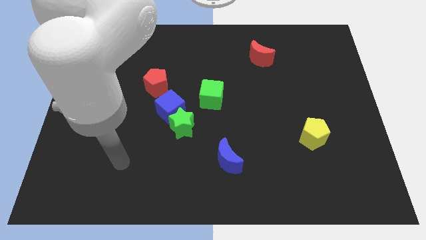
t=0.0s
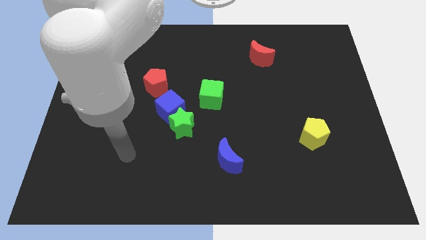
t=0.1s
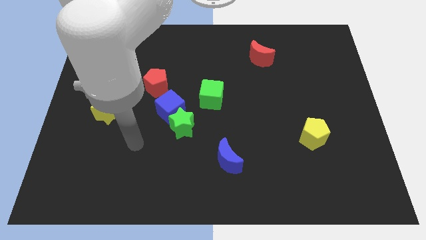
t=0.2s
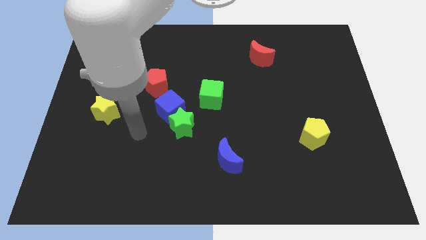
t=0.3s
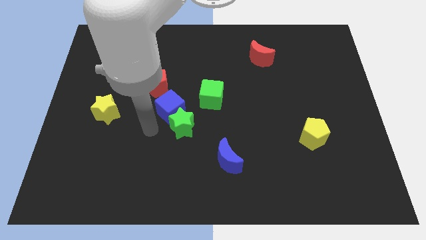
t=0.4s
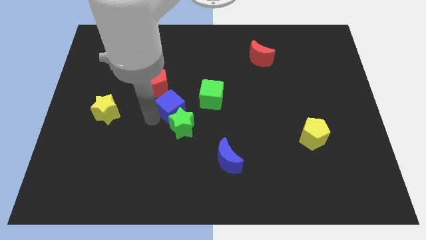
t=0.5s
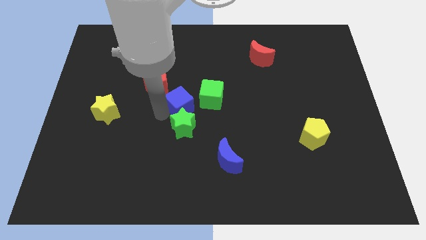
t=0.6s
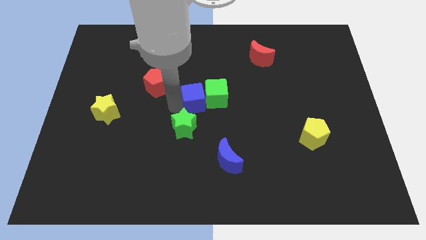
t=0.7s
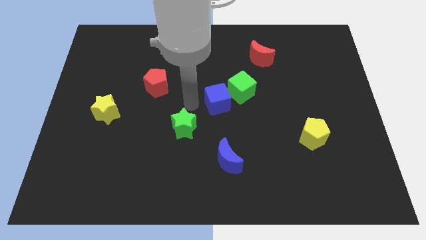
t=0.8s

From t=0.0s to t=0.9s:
separate the green star from the blue cube

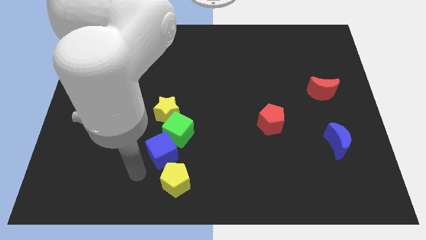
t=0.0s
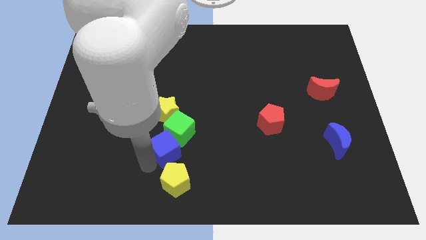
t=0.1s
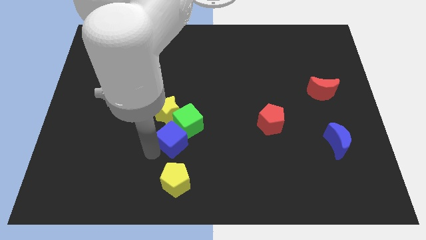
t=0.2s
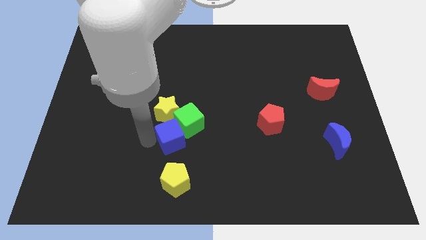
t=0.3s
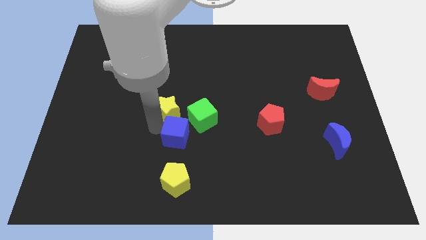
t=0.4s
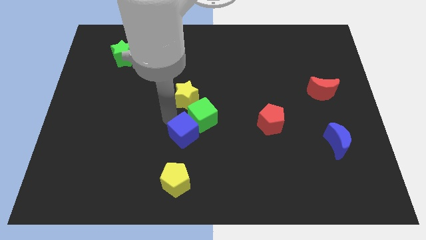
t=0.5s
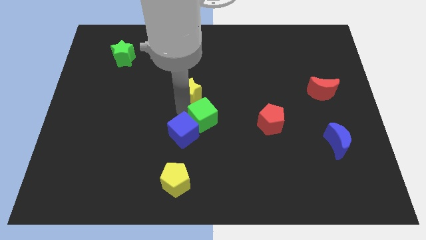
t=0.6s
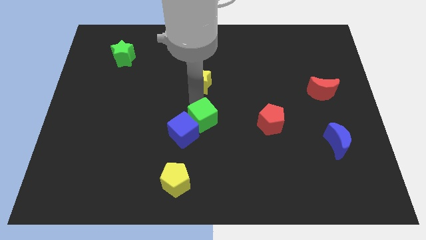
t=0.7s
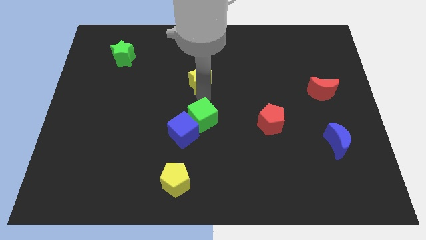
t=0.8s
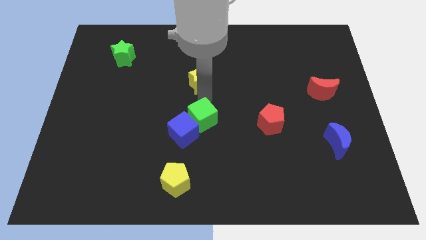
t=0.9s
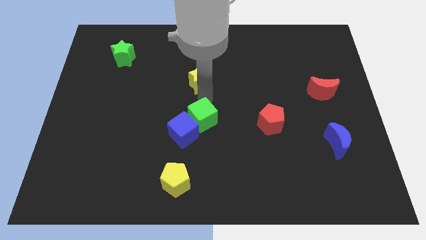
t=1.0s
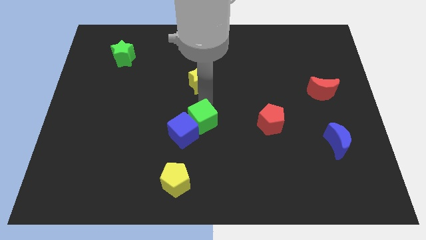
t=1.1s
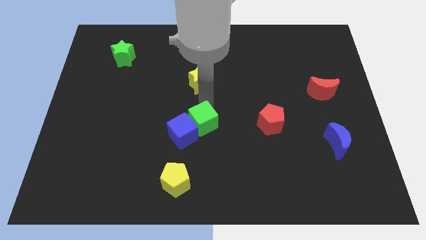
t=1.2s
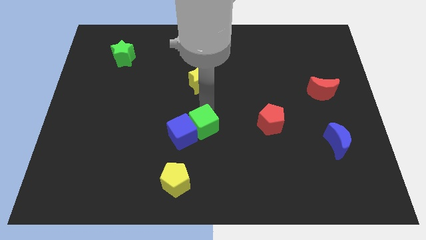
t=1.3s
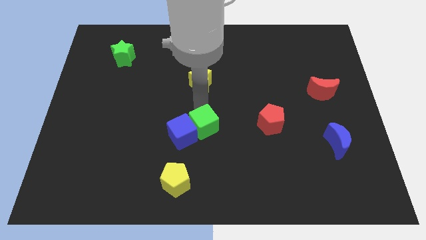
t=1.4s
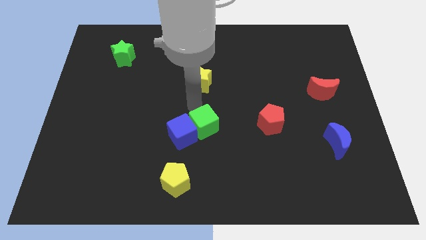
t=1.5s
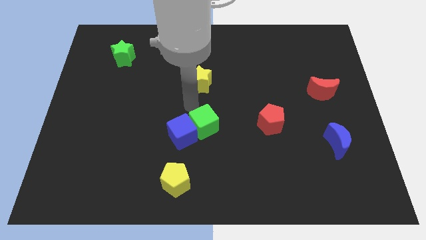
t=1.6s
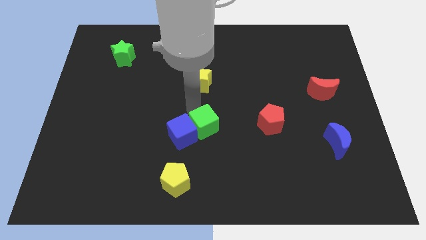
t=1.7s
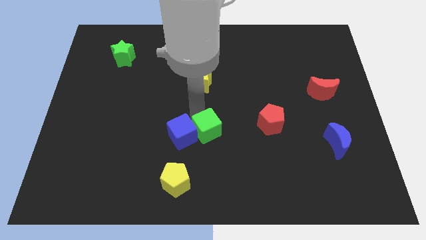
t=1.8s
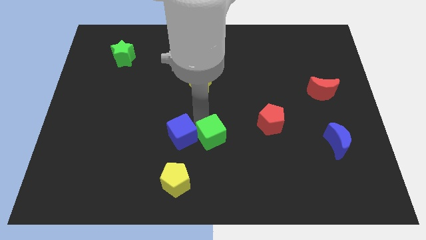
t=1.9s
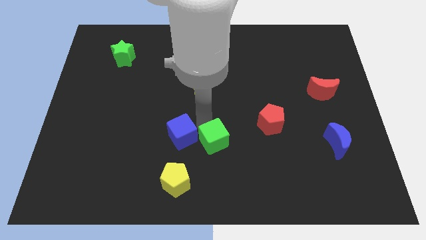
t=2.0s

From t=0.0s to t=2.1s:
pull the green cube apart from the yellow star and blue cube

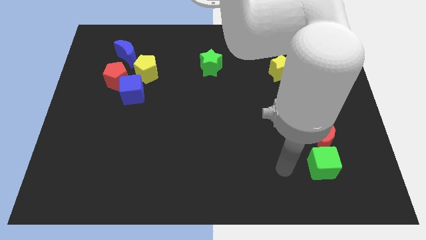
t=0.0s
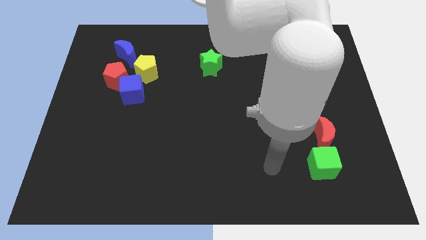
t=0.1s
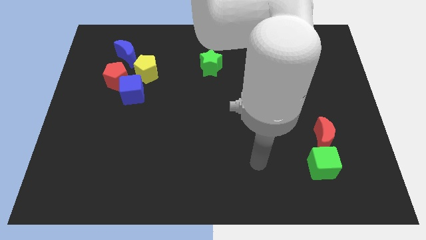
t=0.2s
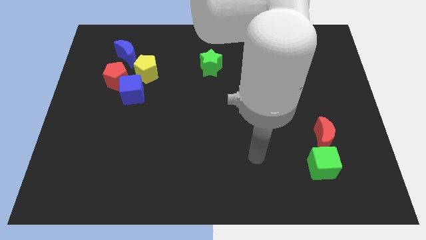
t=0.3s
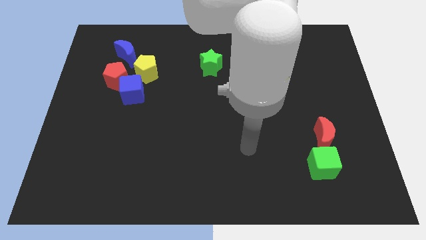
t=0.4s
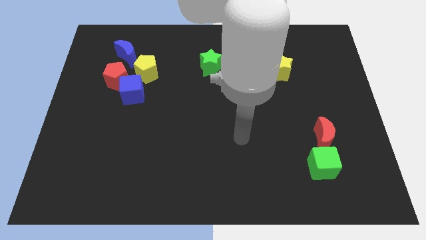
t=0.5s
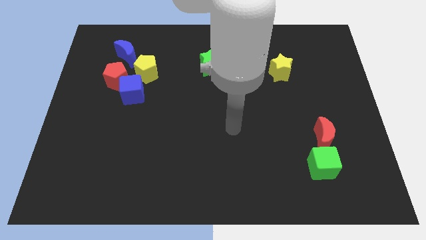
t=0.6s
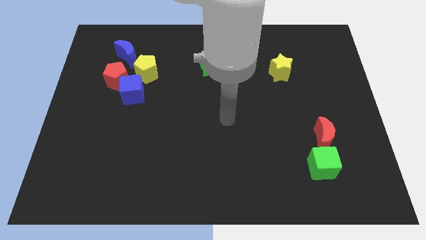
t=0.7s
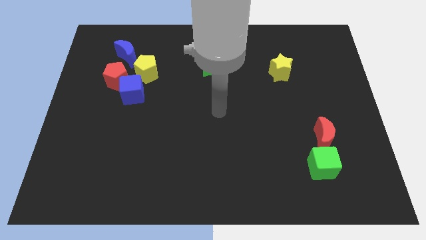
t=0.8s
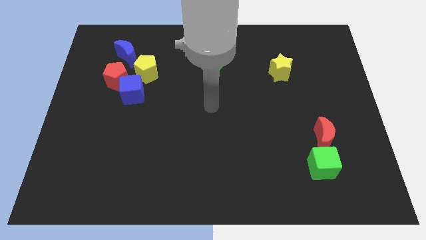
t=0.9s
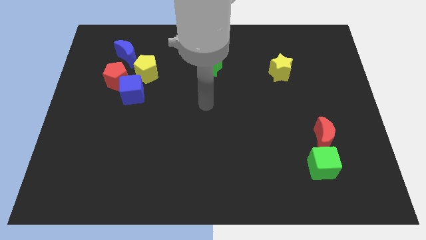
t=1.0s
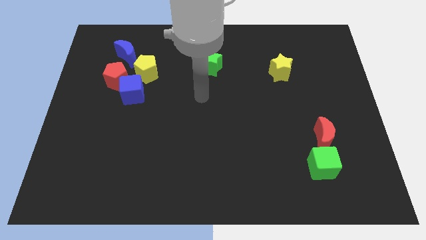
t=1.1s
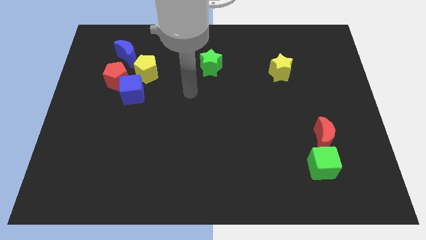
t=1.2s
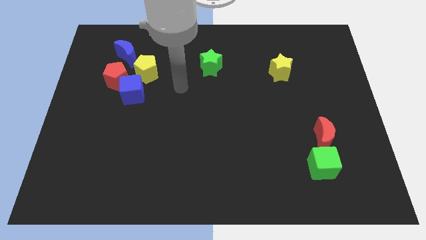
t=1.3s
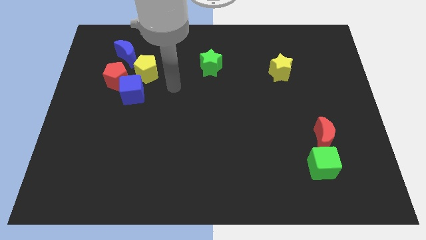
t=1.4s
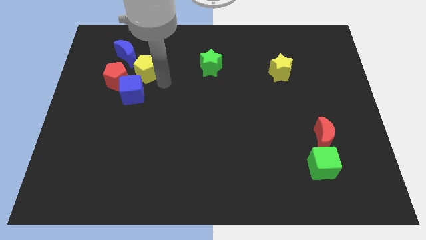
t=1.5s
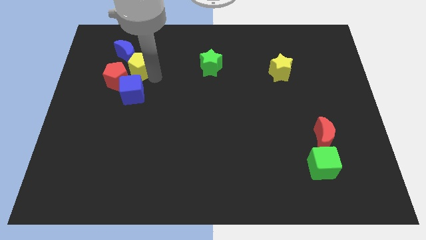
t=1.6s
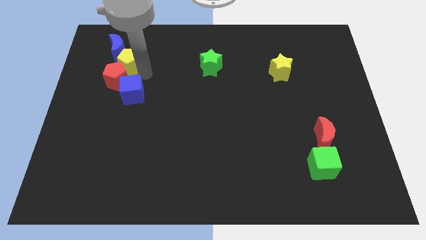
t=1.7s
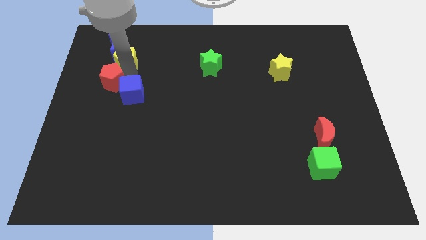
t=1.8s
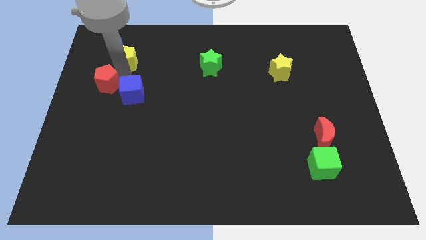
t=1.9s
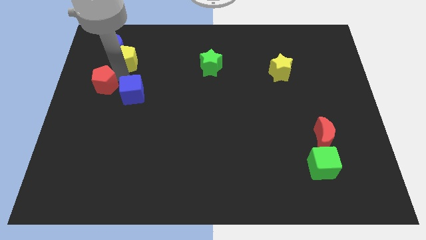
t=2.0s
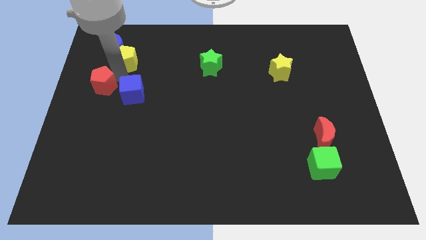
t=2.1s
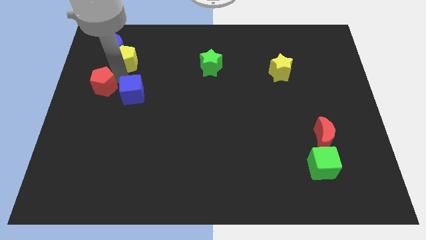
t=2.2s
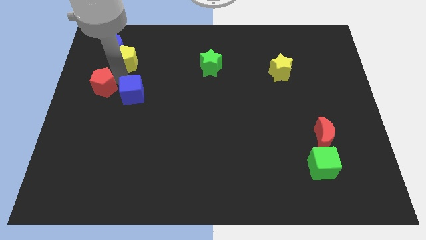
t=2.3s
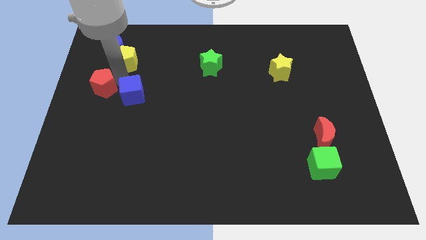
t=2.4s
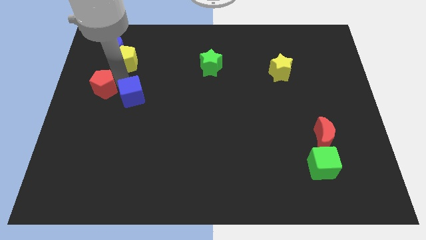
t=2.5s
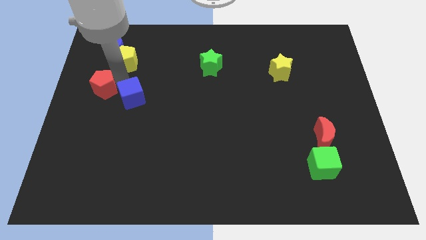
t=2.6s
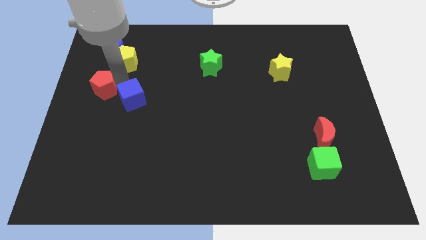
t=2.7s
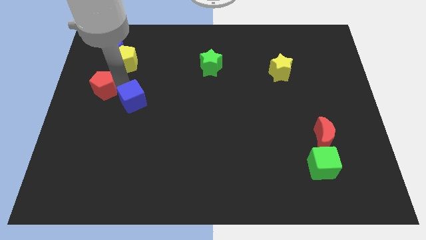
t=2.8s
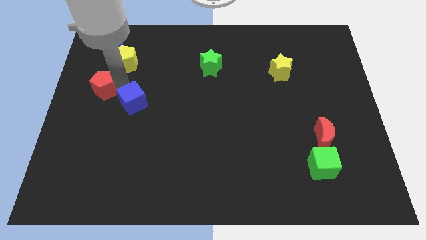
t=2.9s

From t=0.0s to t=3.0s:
pull the blue cube apart from the red pentagon and yellow pentagon

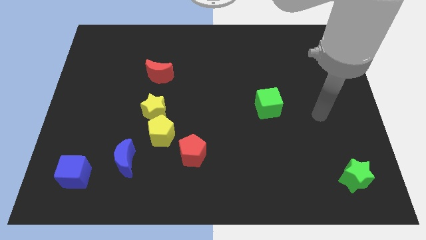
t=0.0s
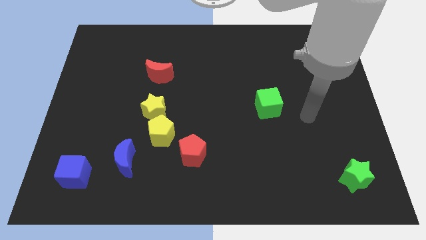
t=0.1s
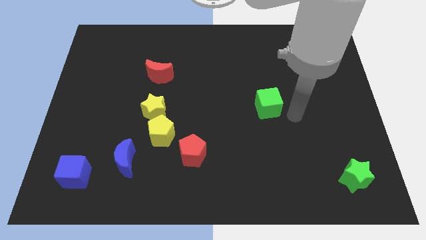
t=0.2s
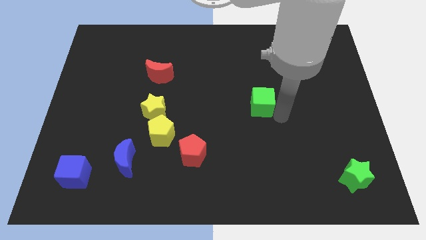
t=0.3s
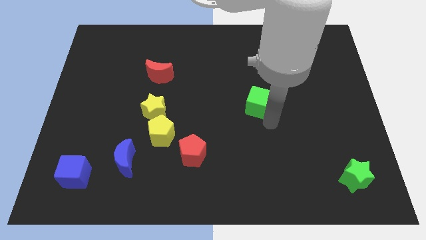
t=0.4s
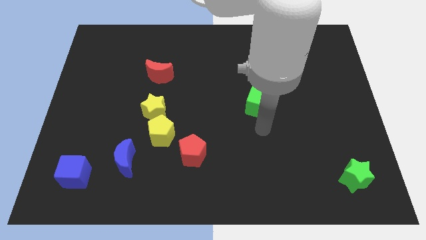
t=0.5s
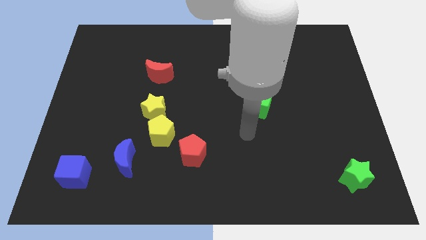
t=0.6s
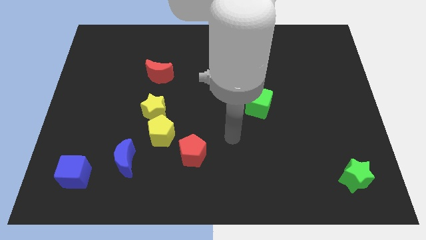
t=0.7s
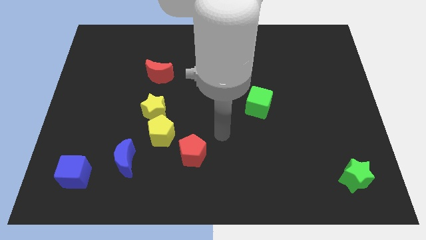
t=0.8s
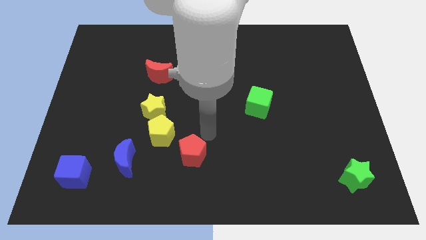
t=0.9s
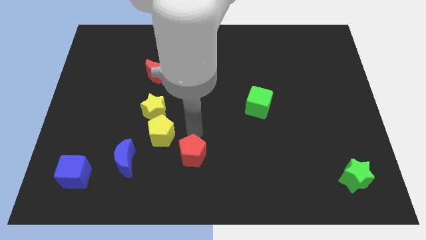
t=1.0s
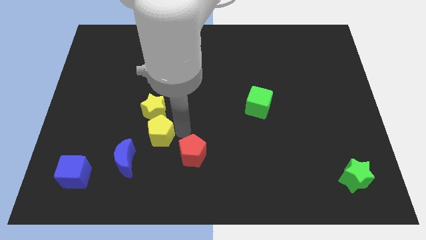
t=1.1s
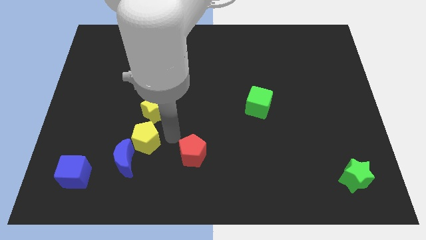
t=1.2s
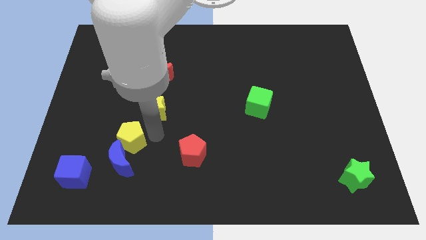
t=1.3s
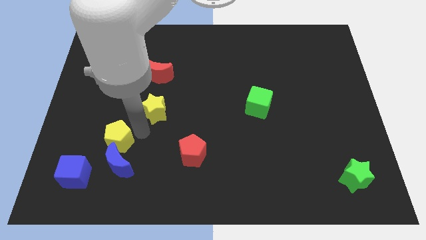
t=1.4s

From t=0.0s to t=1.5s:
pull the yellow star apart from the yellow pentagon

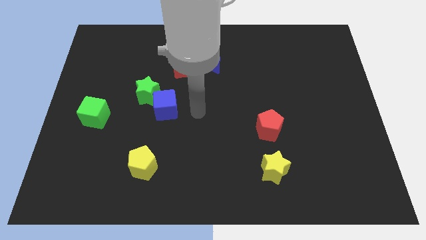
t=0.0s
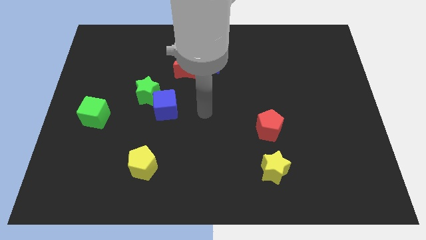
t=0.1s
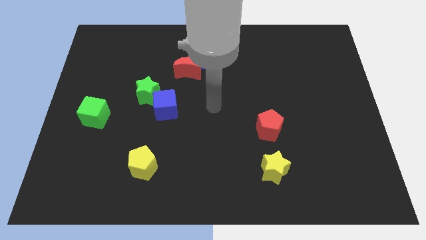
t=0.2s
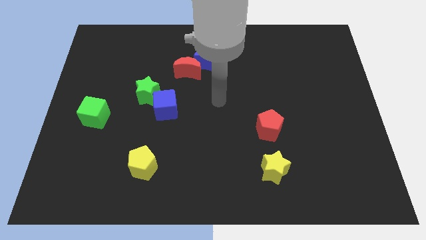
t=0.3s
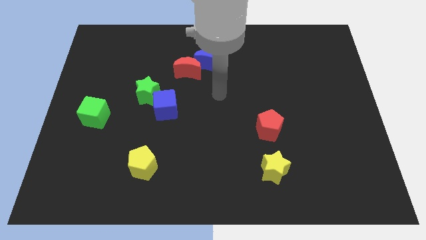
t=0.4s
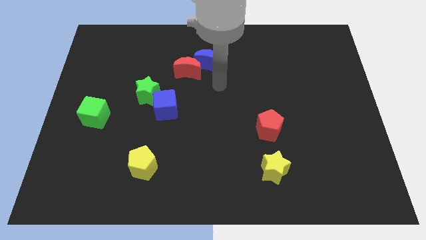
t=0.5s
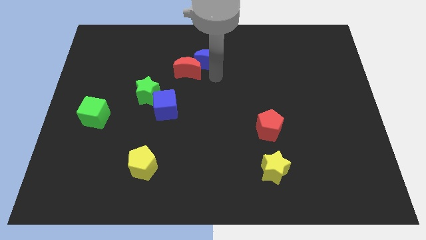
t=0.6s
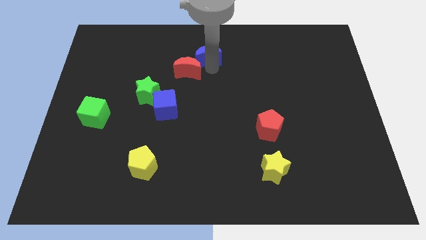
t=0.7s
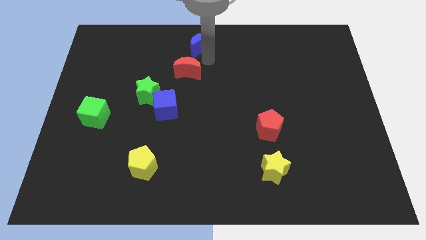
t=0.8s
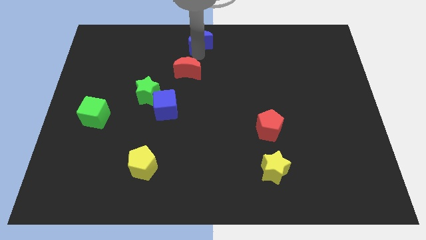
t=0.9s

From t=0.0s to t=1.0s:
separate the red moon from the blue moon

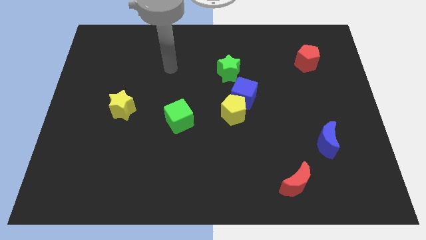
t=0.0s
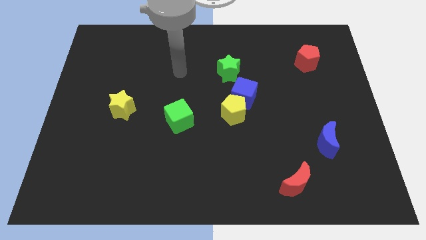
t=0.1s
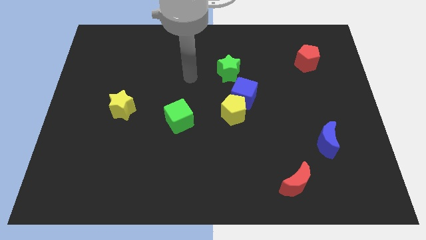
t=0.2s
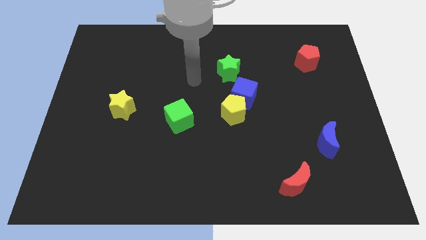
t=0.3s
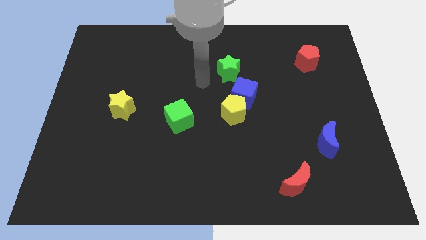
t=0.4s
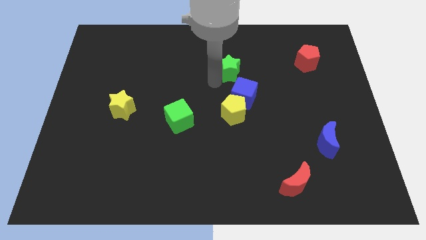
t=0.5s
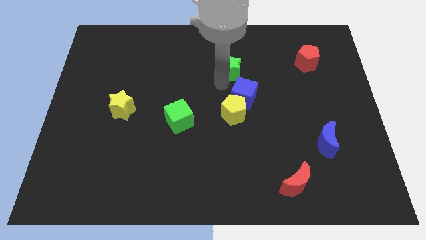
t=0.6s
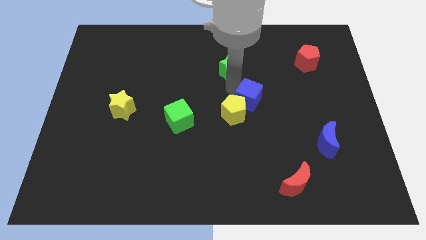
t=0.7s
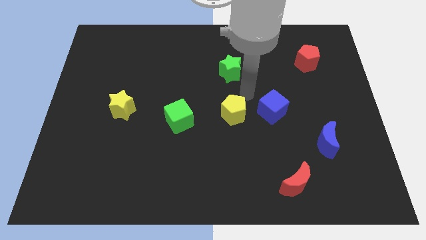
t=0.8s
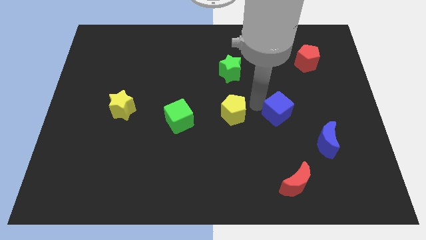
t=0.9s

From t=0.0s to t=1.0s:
separate the yellow pentagon from the blue cube
